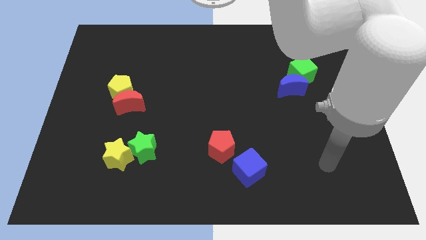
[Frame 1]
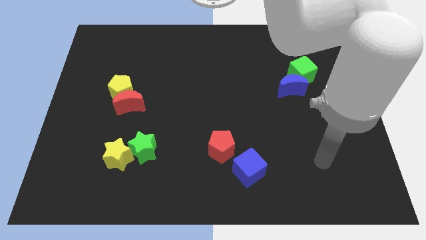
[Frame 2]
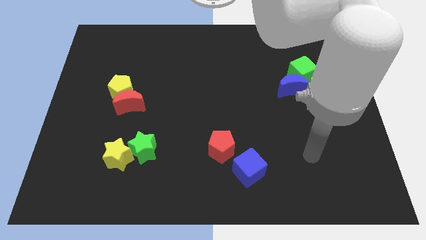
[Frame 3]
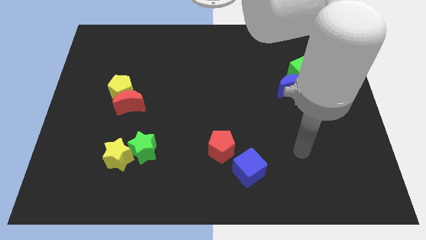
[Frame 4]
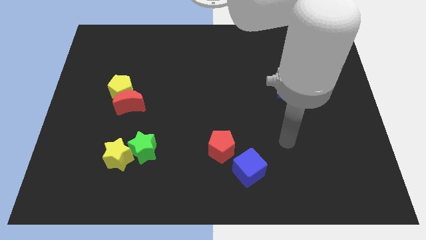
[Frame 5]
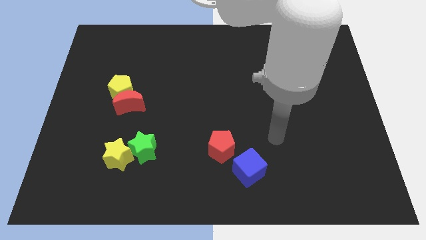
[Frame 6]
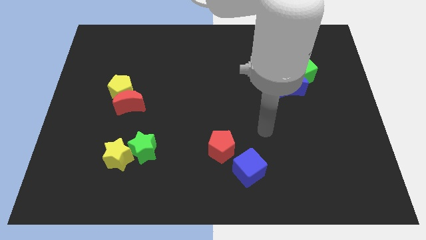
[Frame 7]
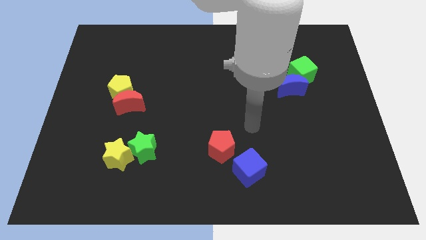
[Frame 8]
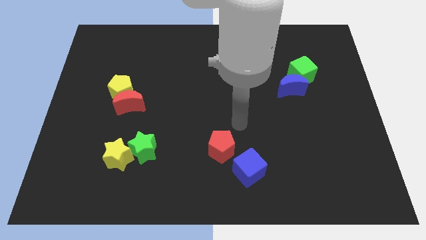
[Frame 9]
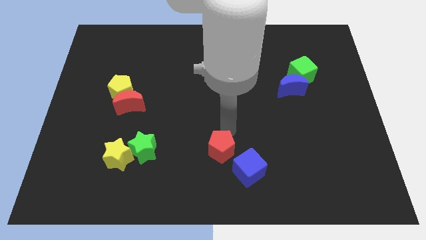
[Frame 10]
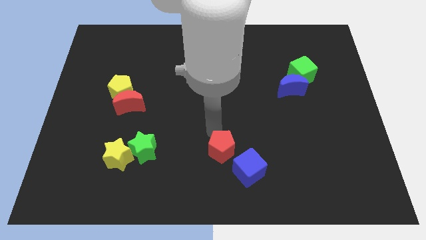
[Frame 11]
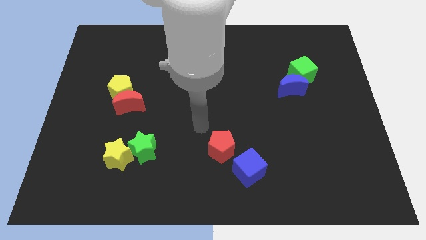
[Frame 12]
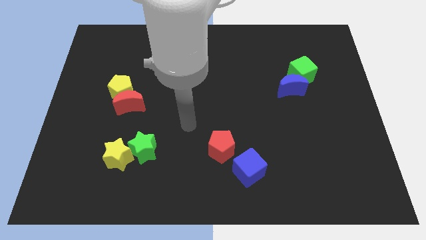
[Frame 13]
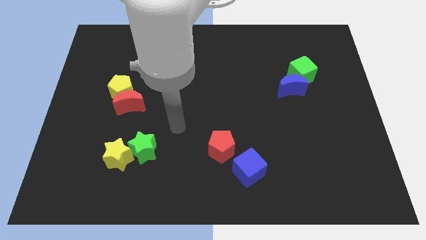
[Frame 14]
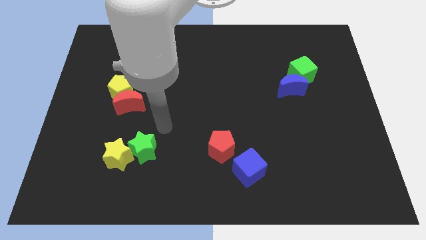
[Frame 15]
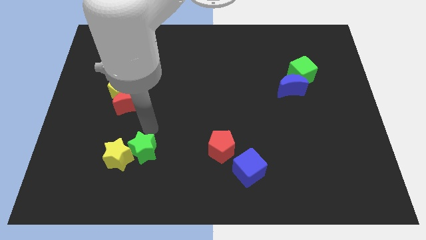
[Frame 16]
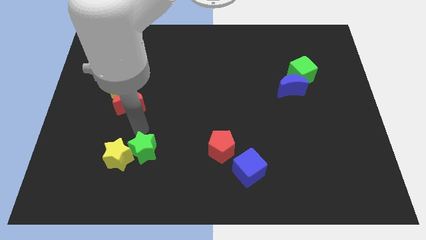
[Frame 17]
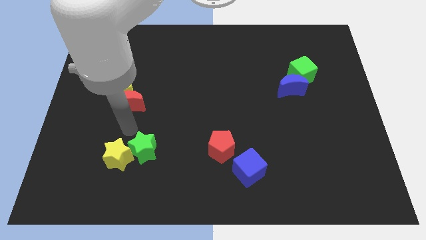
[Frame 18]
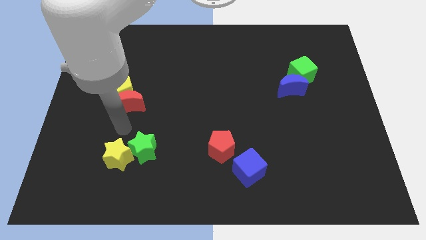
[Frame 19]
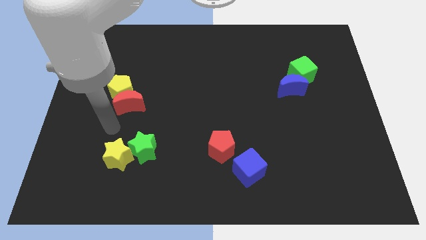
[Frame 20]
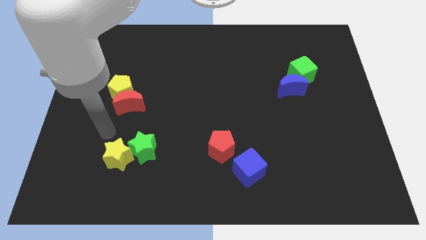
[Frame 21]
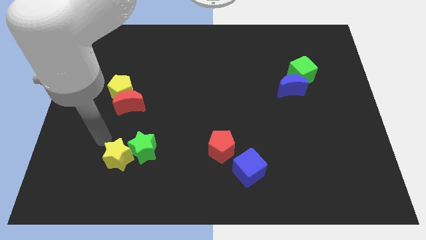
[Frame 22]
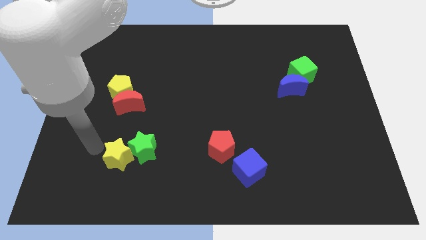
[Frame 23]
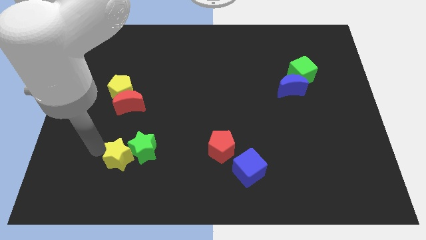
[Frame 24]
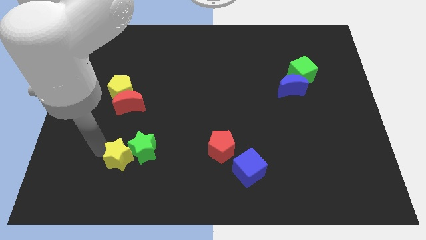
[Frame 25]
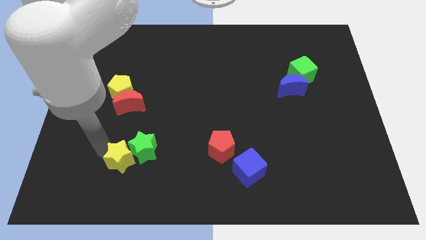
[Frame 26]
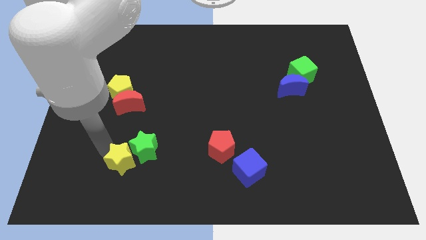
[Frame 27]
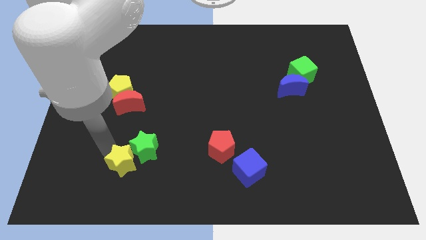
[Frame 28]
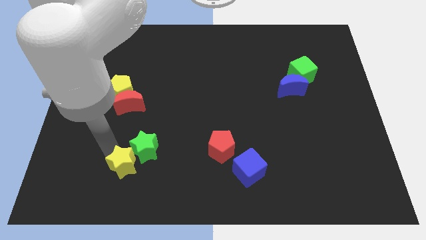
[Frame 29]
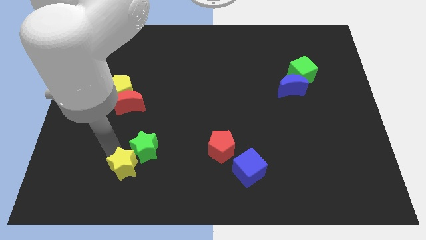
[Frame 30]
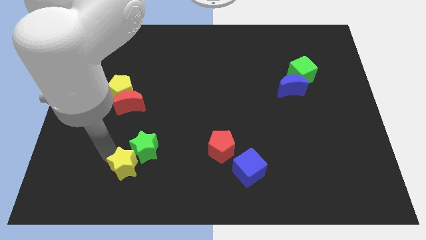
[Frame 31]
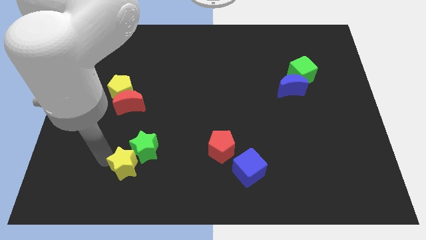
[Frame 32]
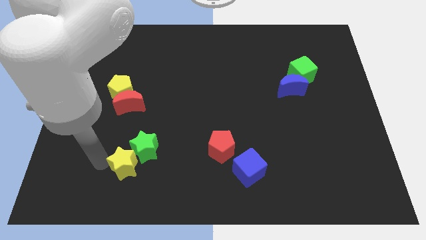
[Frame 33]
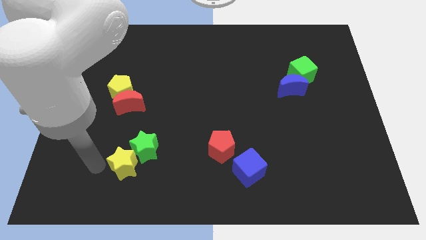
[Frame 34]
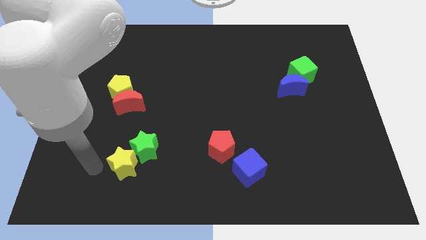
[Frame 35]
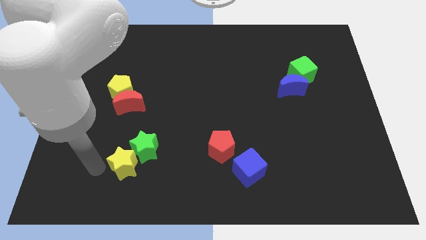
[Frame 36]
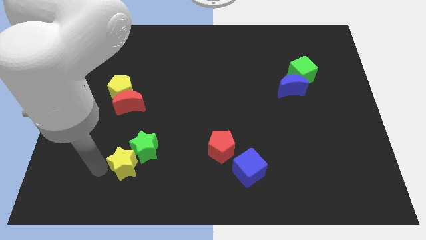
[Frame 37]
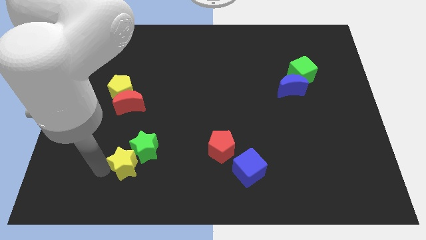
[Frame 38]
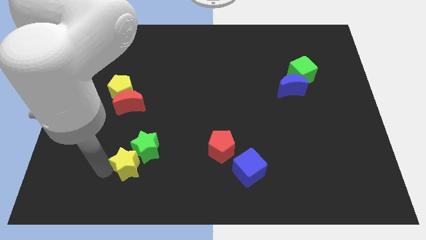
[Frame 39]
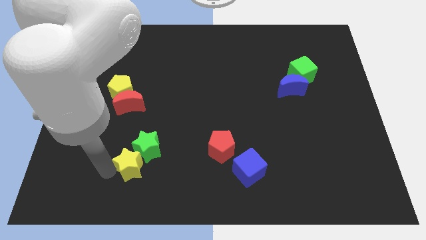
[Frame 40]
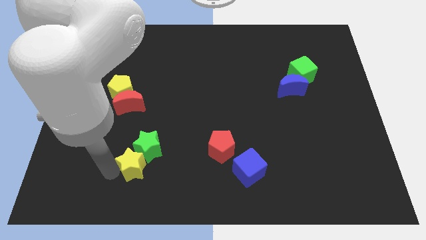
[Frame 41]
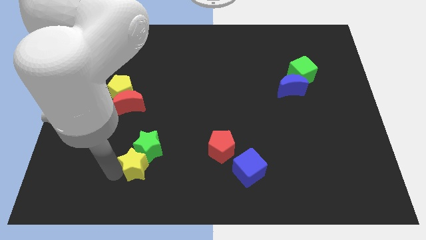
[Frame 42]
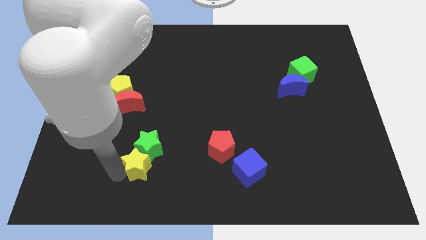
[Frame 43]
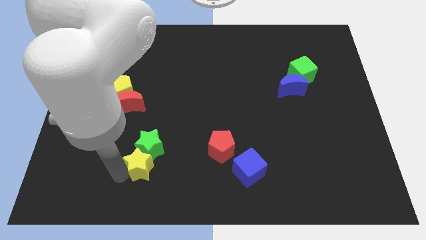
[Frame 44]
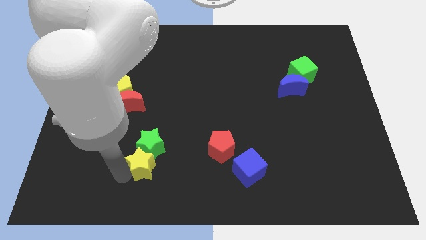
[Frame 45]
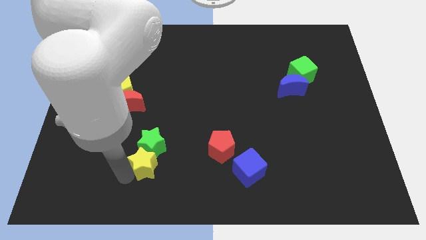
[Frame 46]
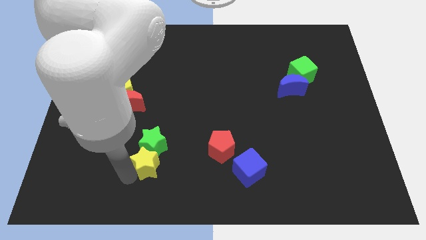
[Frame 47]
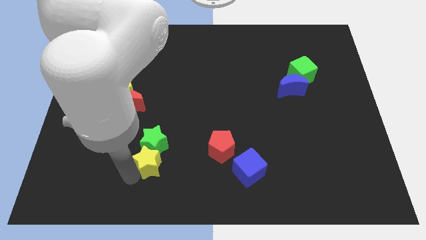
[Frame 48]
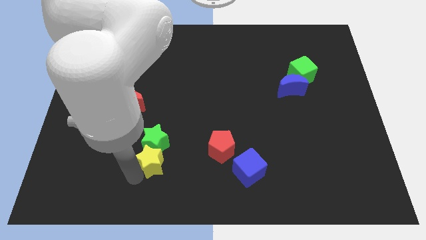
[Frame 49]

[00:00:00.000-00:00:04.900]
push the yellow star left of the red pentagon

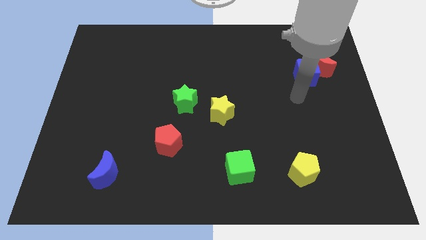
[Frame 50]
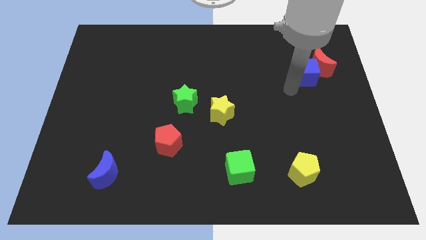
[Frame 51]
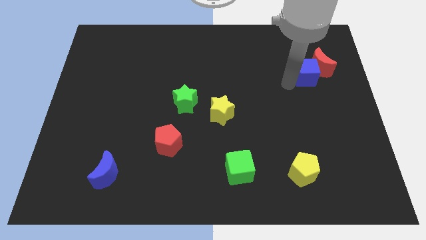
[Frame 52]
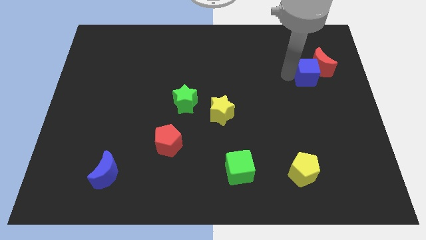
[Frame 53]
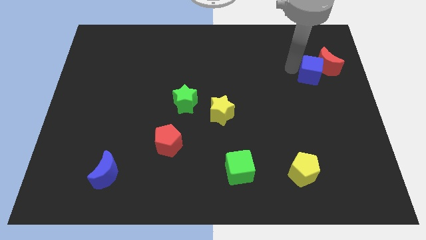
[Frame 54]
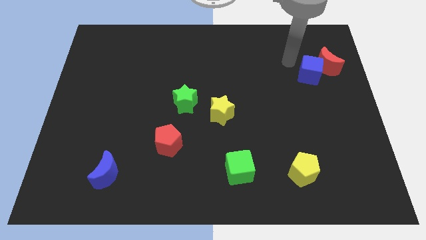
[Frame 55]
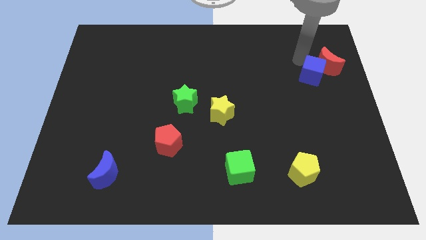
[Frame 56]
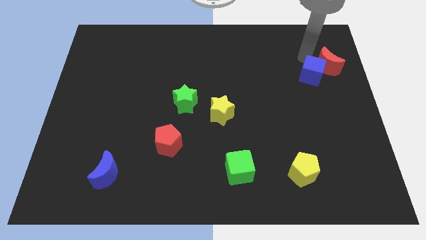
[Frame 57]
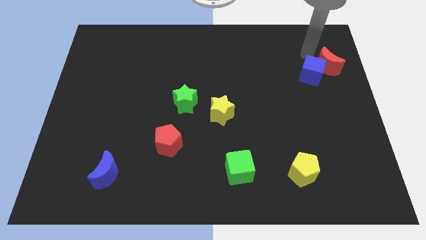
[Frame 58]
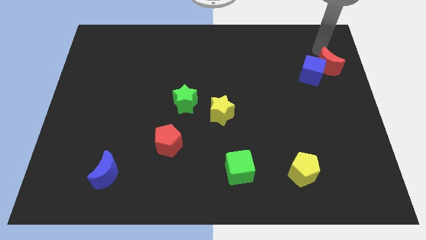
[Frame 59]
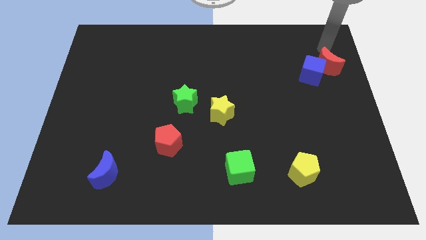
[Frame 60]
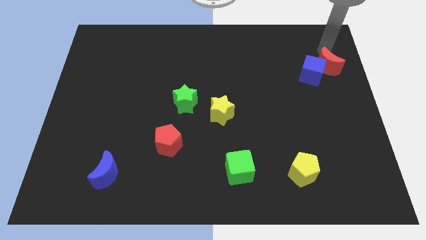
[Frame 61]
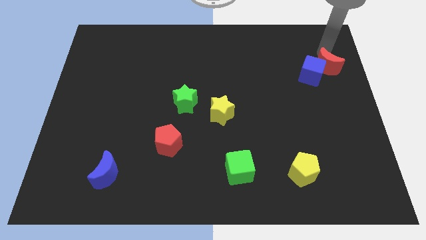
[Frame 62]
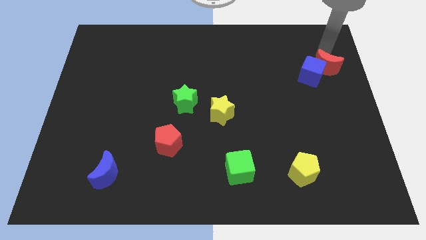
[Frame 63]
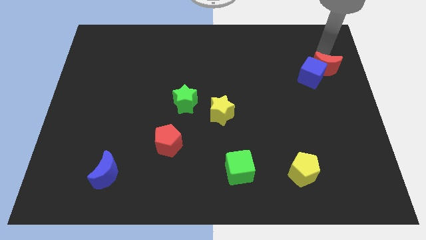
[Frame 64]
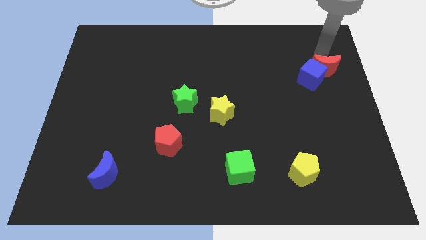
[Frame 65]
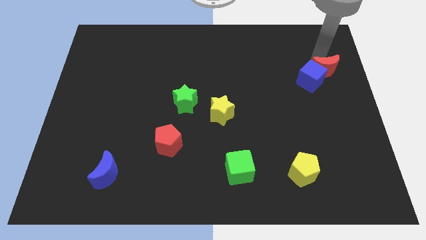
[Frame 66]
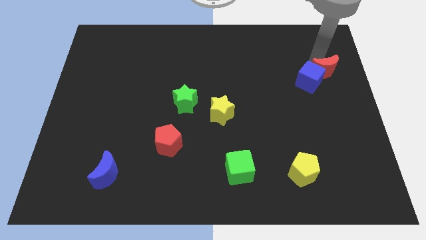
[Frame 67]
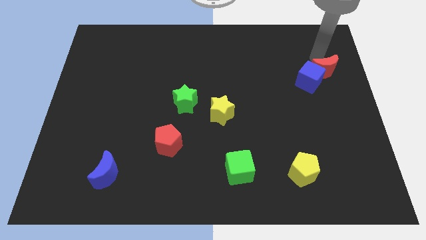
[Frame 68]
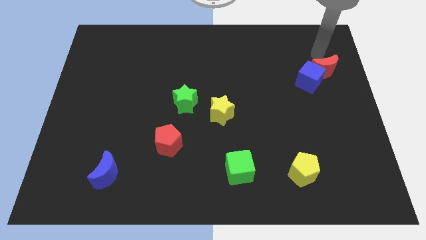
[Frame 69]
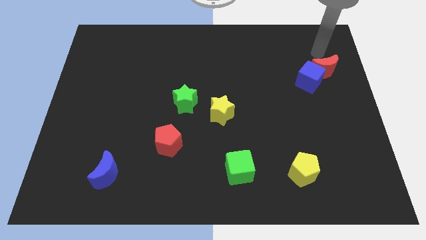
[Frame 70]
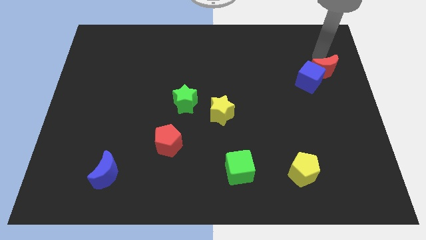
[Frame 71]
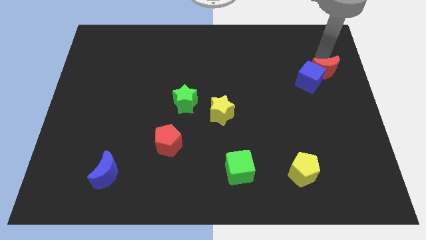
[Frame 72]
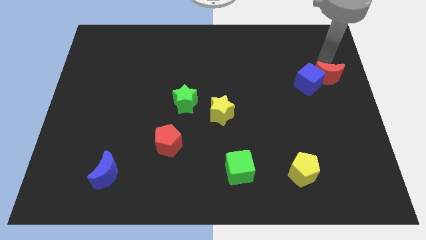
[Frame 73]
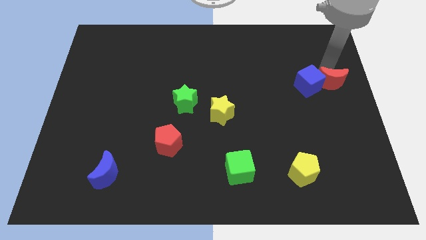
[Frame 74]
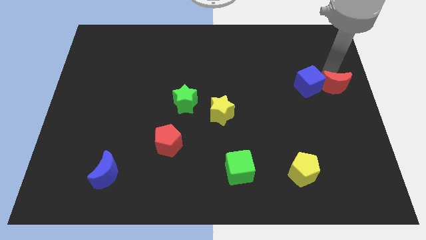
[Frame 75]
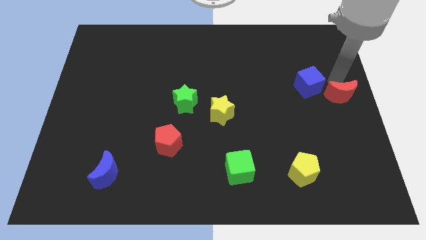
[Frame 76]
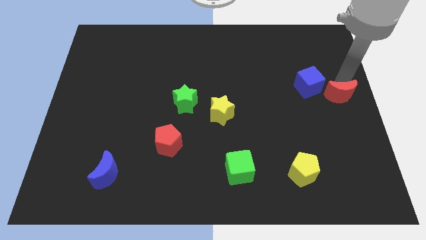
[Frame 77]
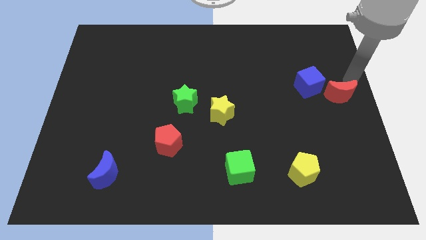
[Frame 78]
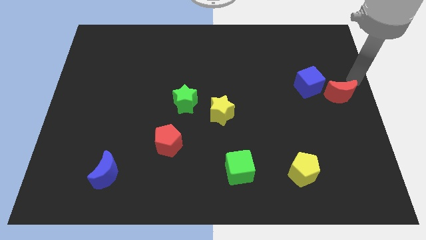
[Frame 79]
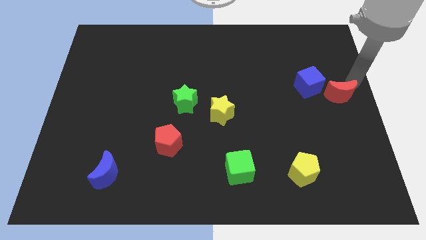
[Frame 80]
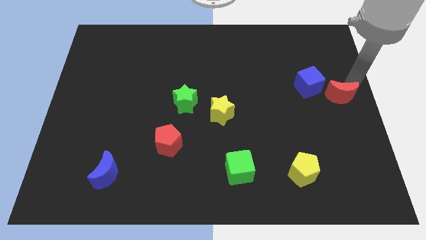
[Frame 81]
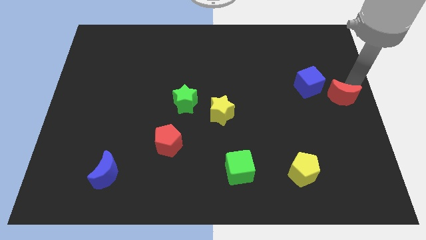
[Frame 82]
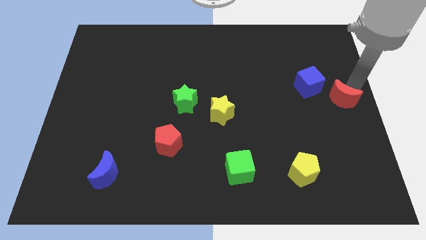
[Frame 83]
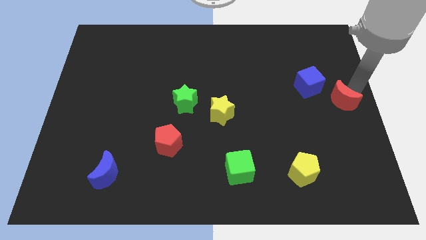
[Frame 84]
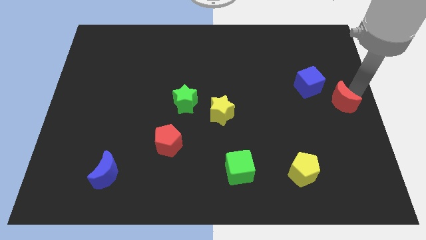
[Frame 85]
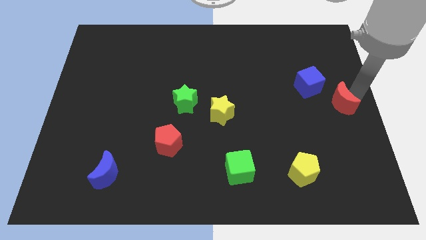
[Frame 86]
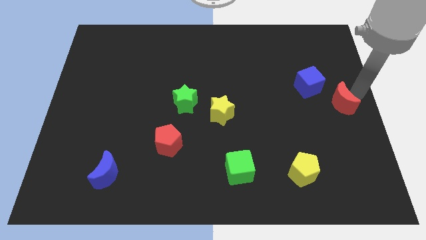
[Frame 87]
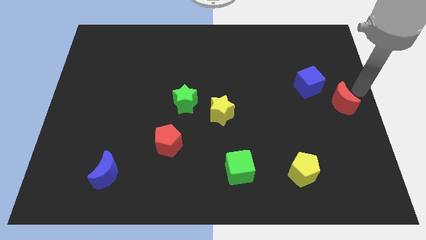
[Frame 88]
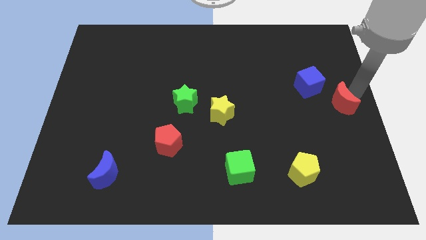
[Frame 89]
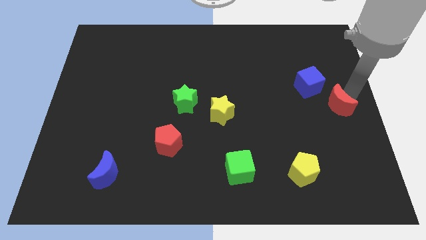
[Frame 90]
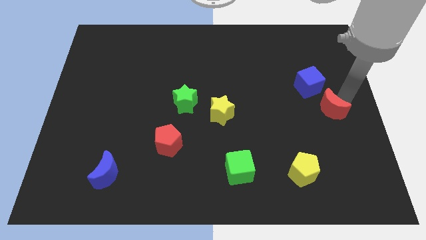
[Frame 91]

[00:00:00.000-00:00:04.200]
put the red moon to the bottom of the blue cube

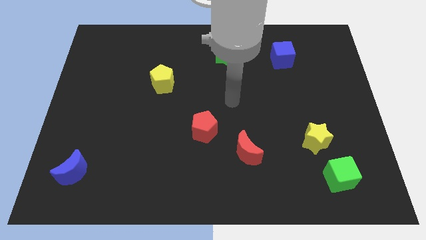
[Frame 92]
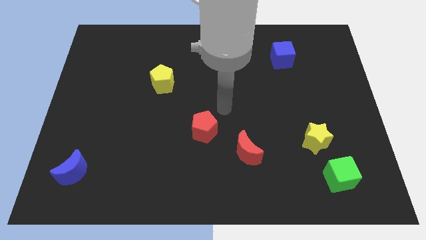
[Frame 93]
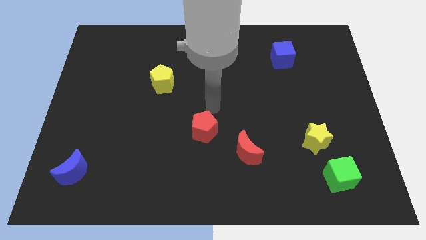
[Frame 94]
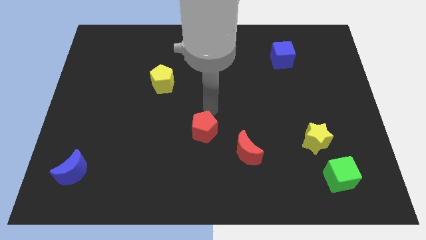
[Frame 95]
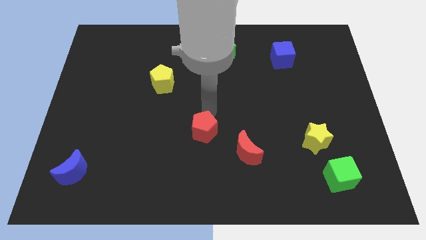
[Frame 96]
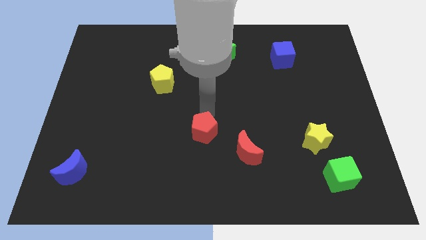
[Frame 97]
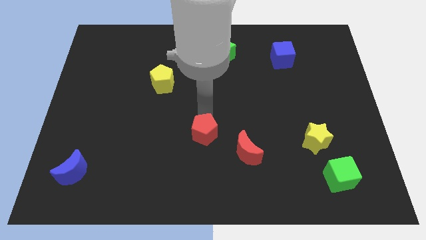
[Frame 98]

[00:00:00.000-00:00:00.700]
push the red pentagon just left of the red moon
